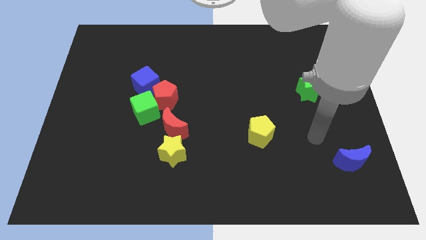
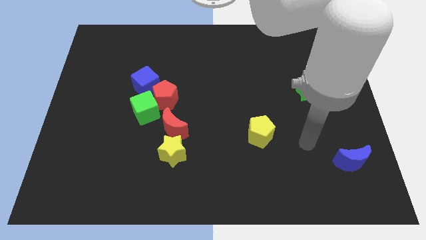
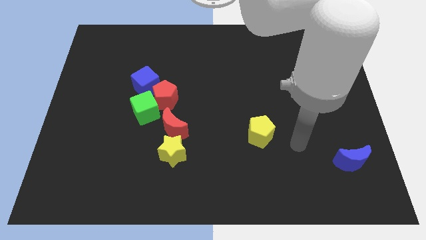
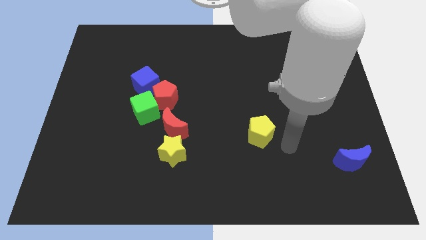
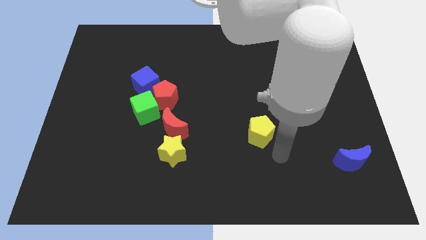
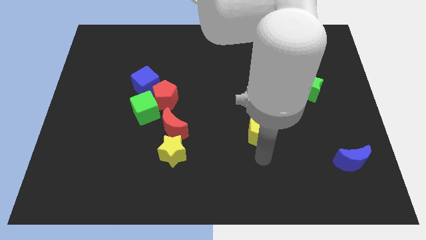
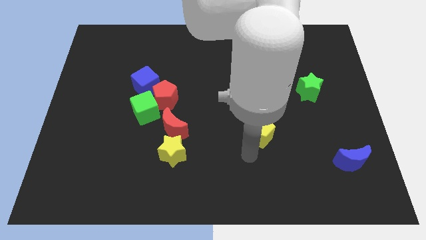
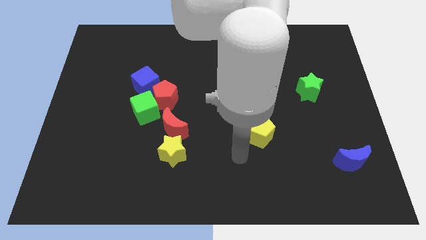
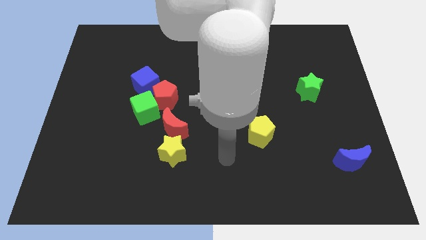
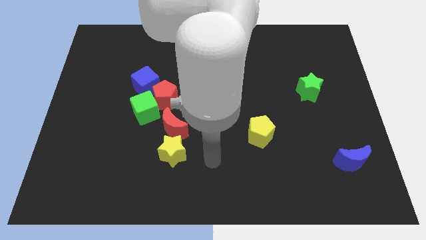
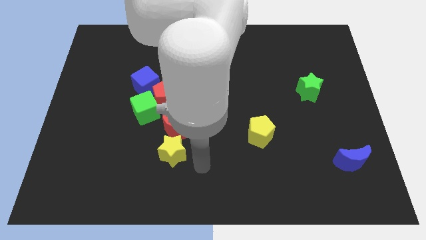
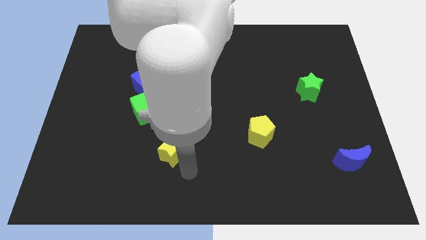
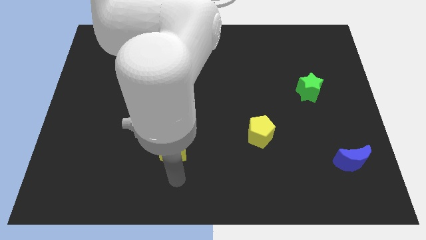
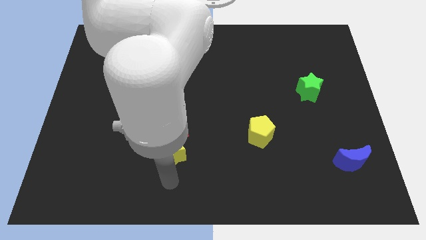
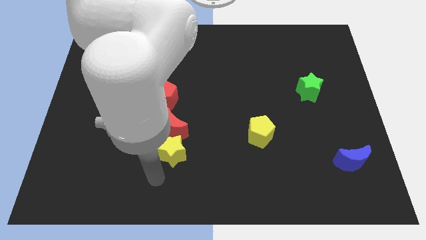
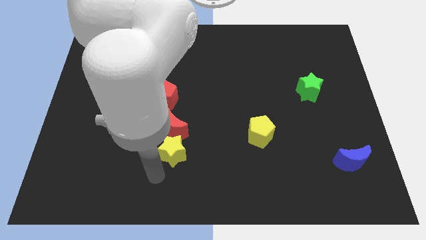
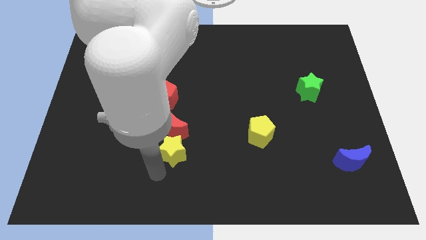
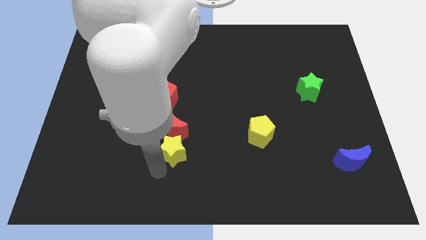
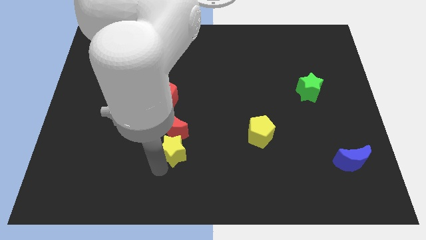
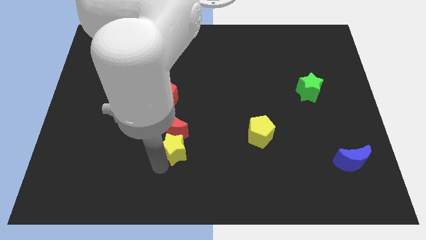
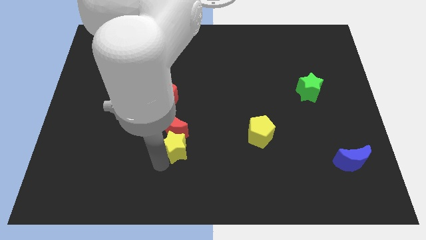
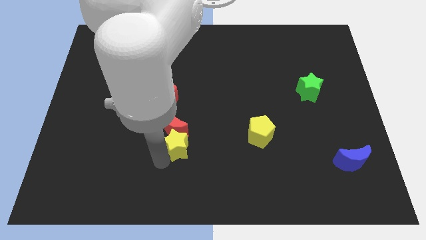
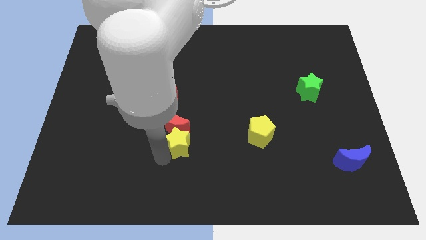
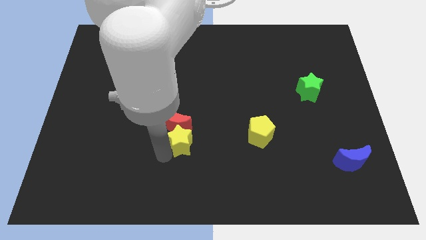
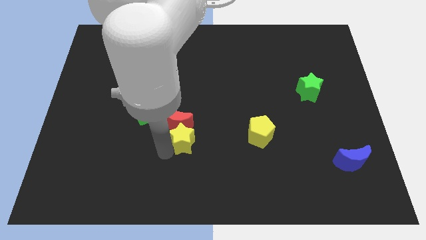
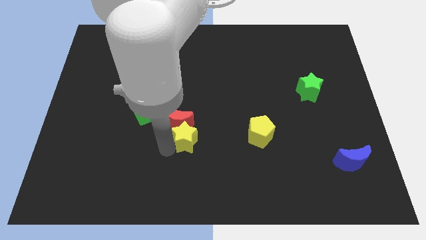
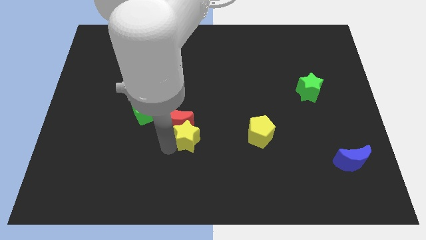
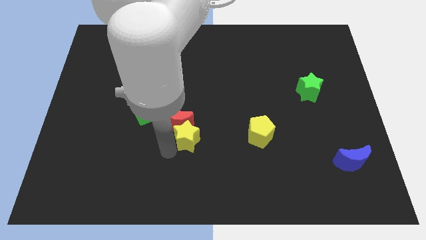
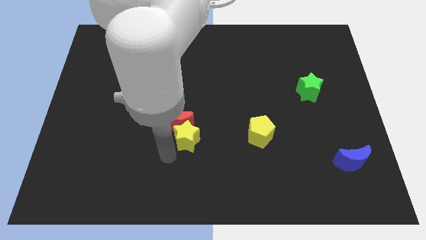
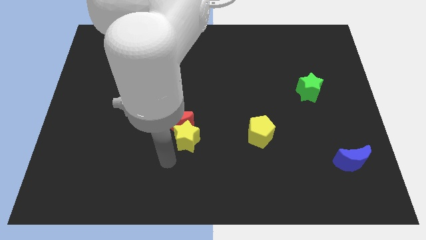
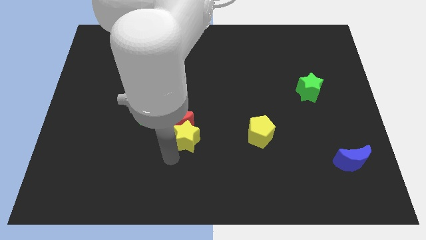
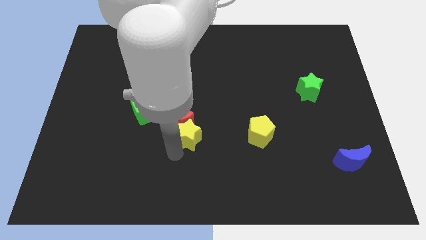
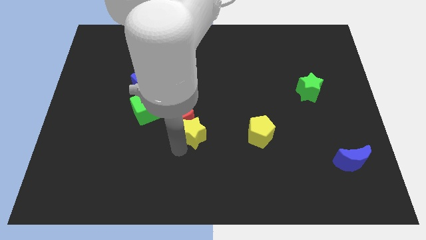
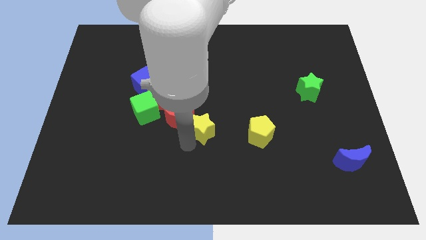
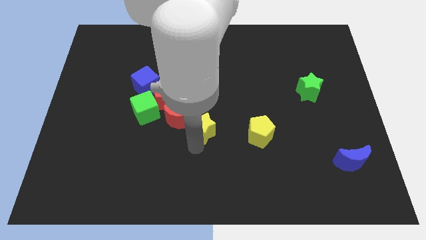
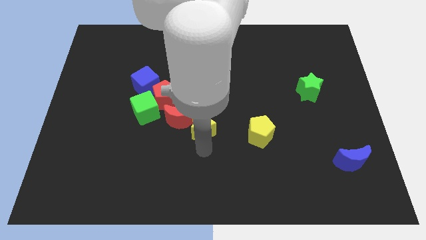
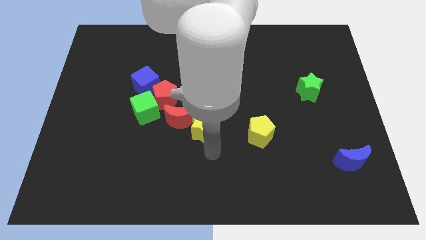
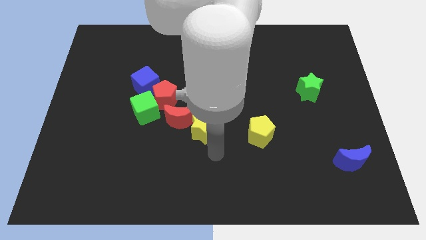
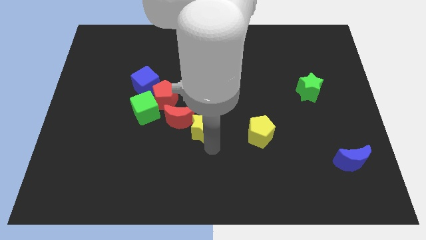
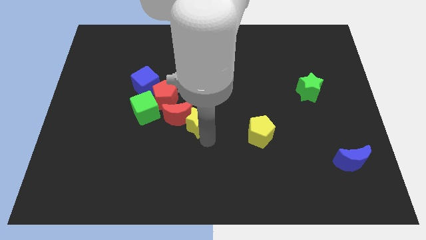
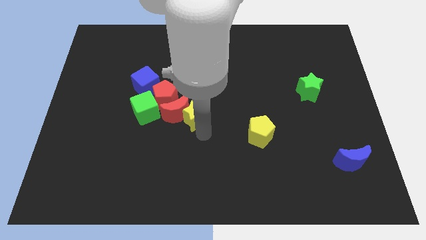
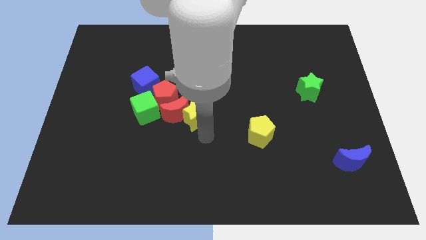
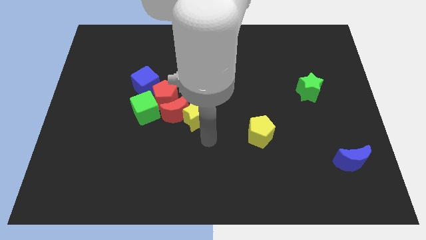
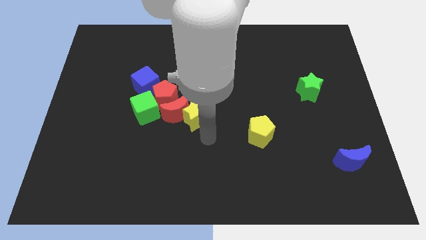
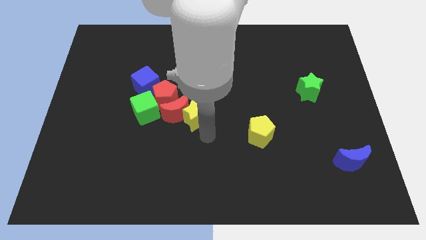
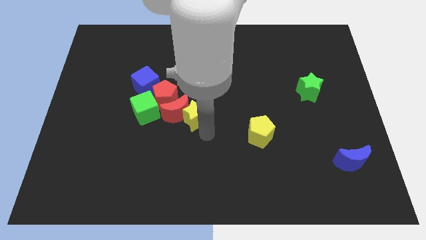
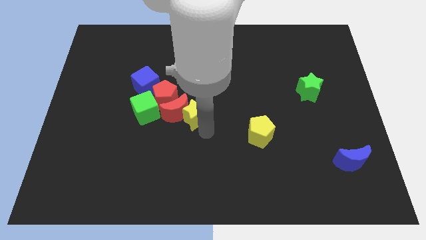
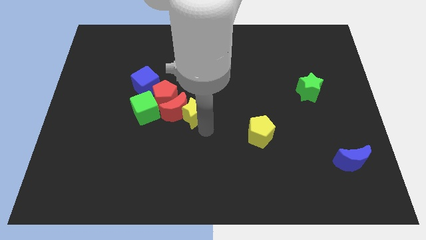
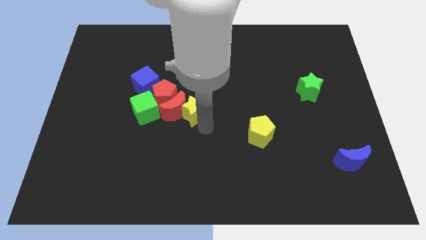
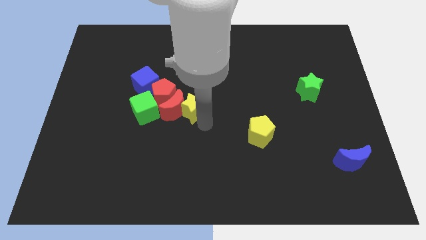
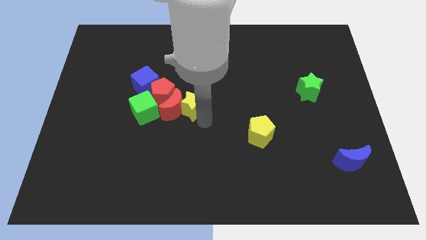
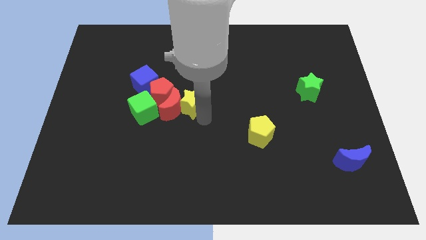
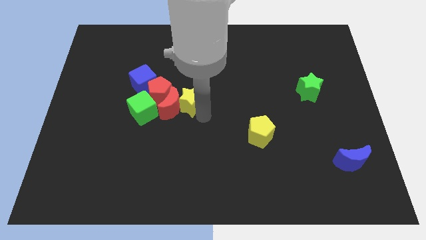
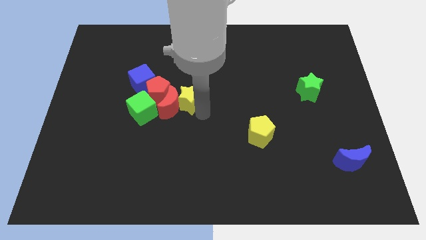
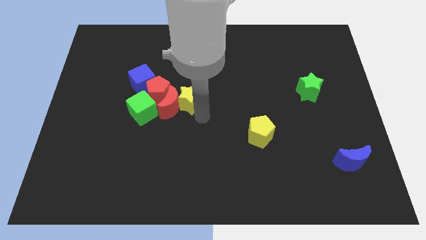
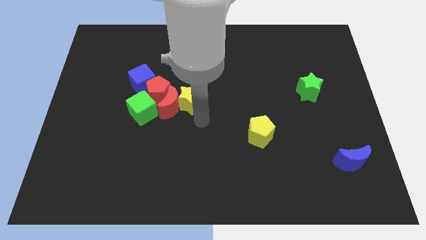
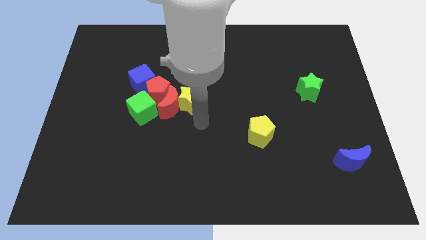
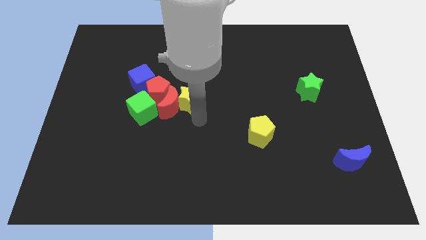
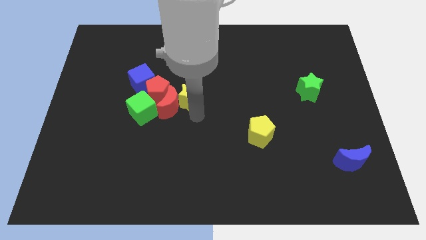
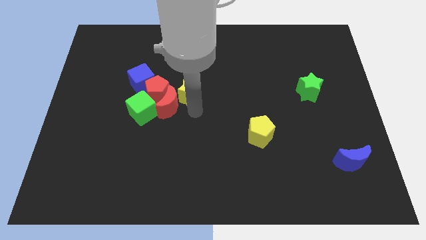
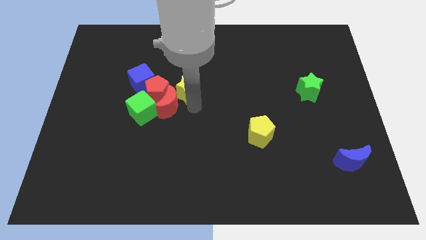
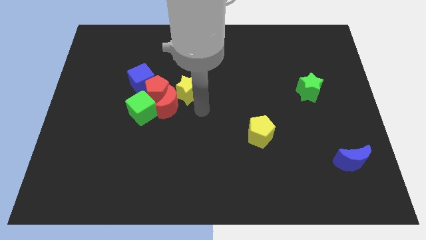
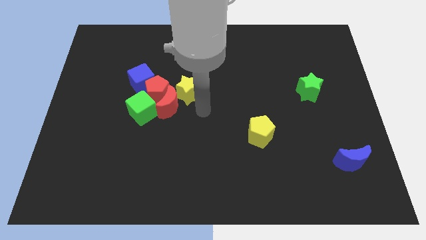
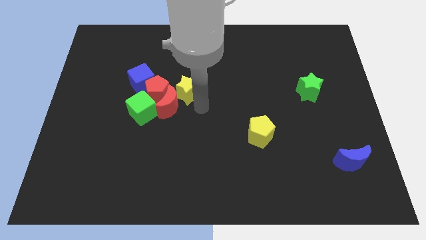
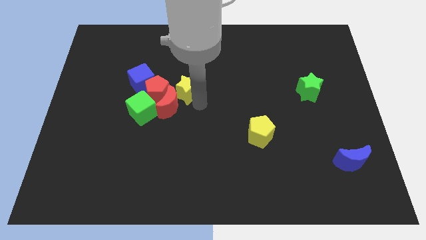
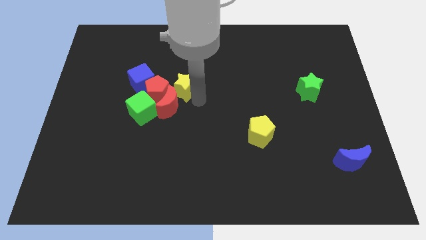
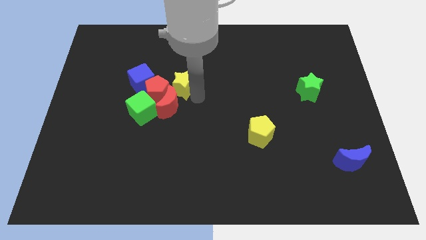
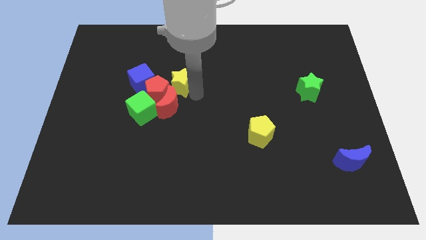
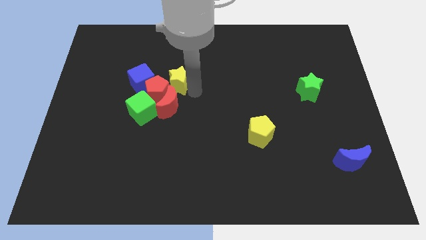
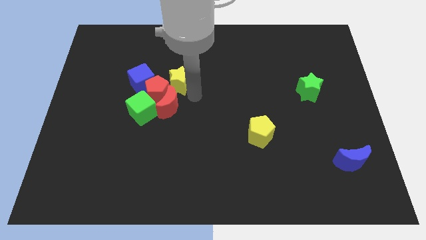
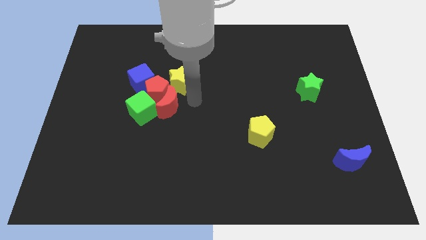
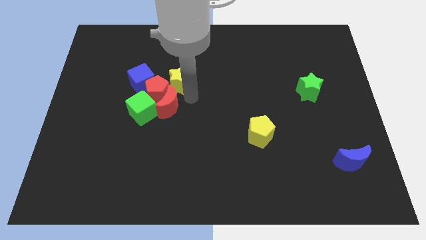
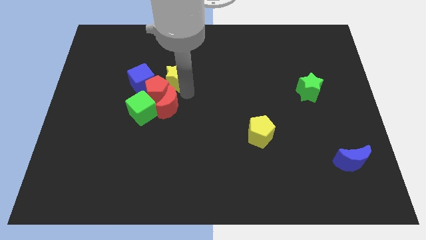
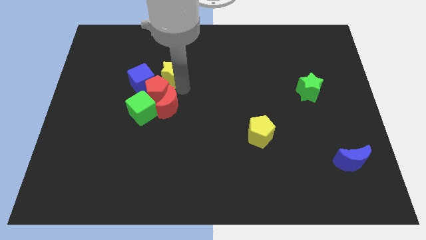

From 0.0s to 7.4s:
slide the yellow star to the top right side of the blue cube
